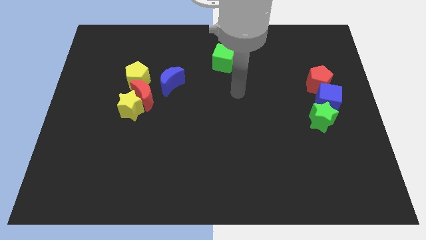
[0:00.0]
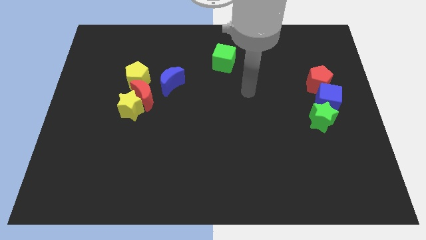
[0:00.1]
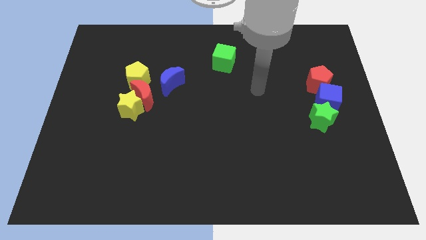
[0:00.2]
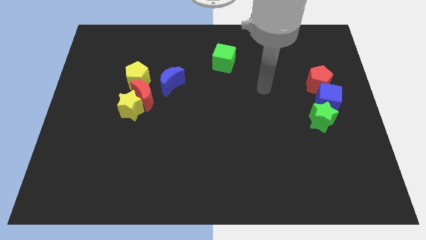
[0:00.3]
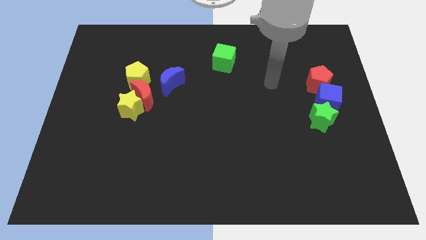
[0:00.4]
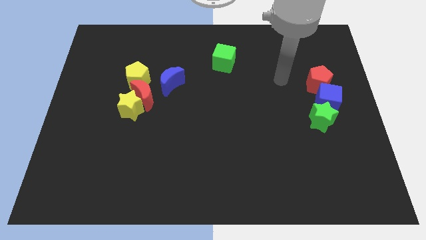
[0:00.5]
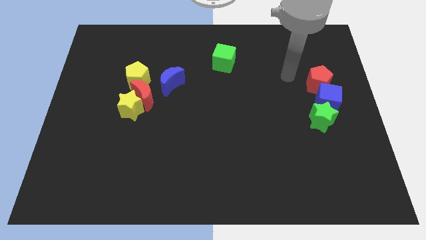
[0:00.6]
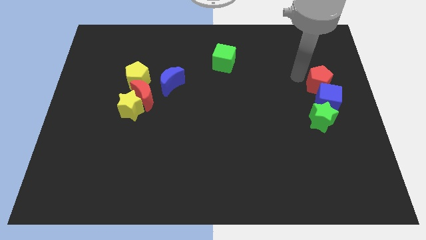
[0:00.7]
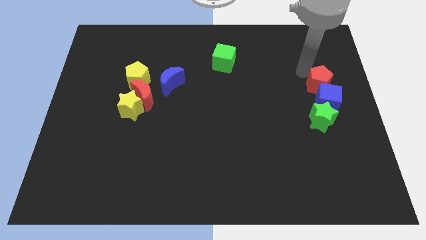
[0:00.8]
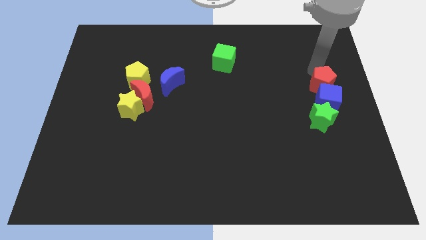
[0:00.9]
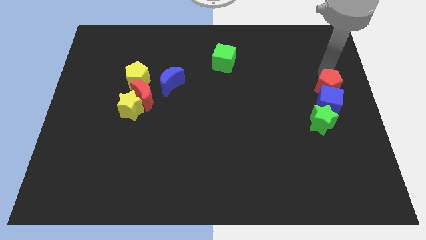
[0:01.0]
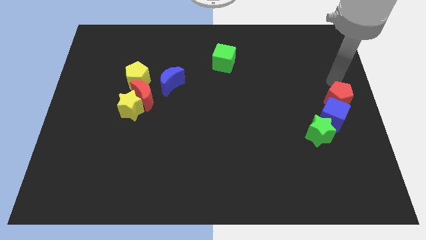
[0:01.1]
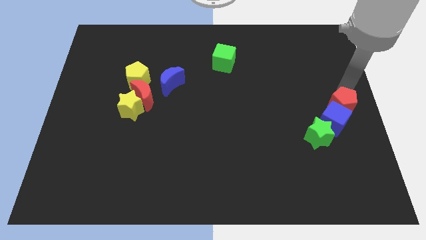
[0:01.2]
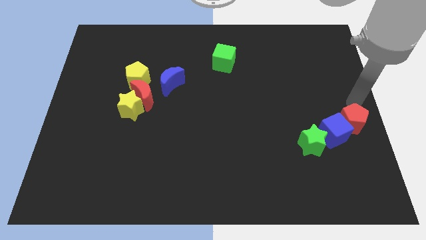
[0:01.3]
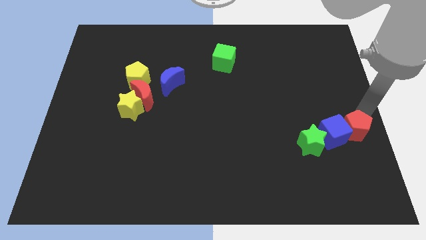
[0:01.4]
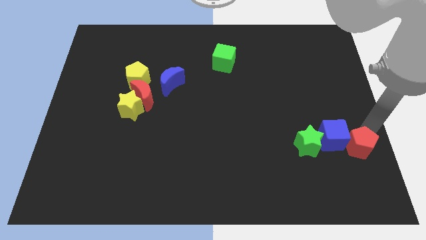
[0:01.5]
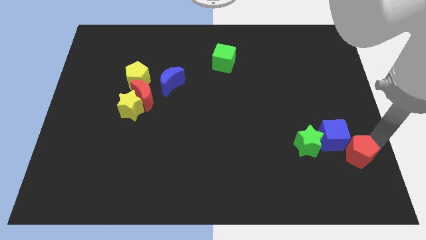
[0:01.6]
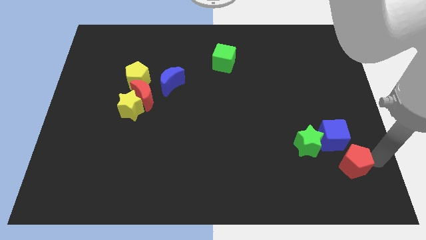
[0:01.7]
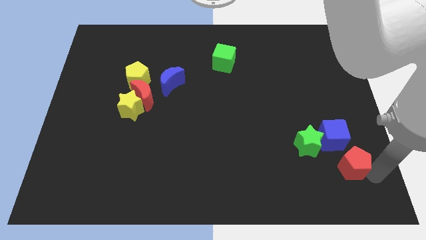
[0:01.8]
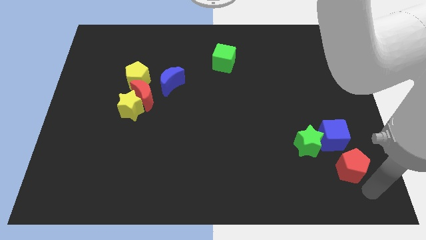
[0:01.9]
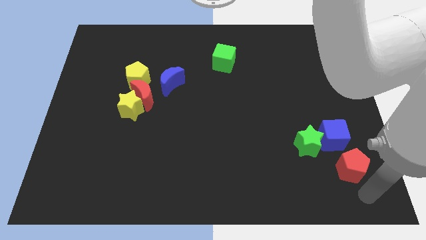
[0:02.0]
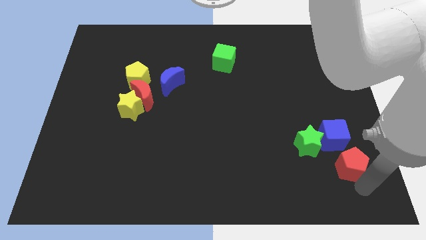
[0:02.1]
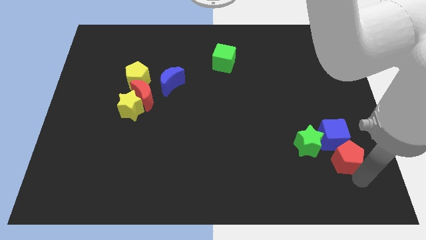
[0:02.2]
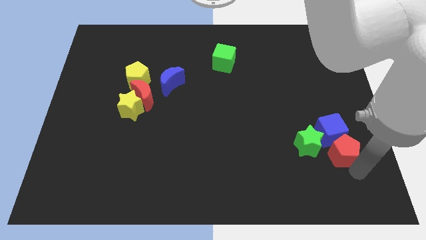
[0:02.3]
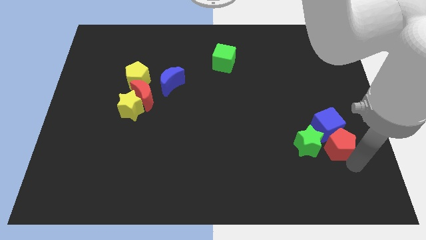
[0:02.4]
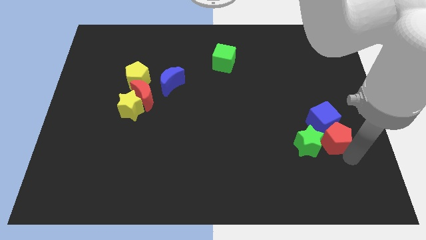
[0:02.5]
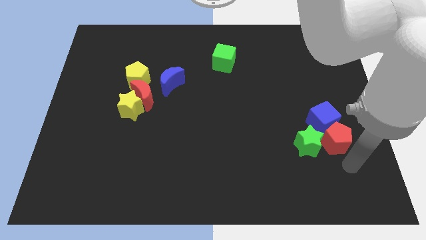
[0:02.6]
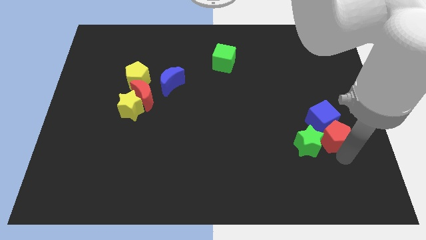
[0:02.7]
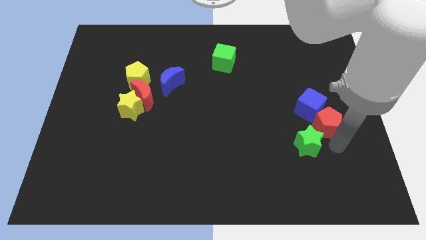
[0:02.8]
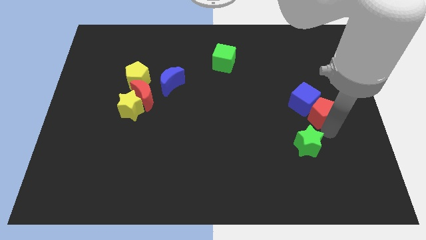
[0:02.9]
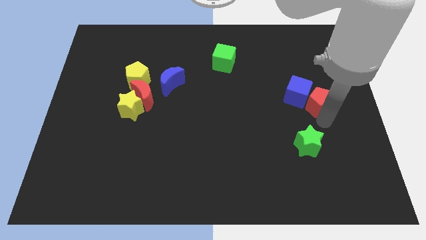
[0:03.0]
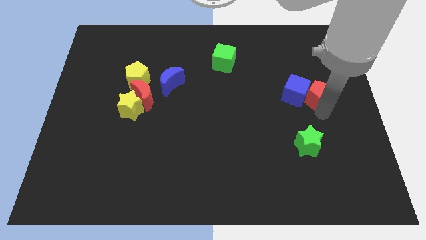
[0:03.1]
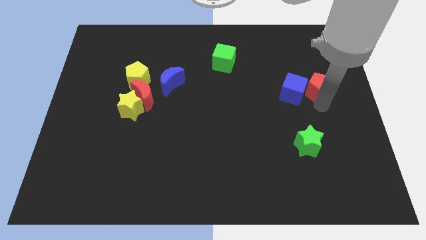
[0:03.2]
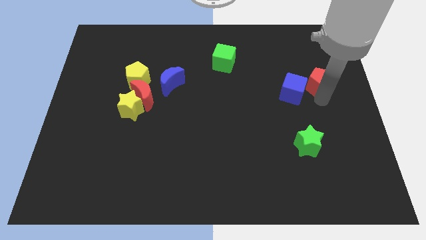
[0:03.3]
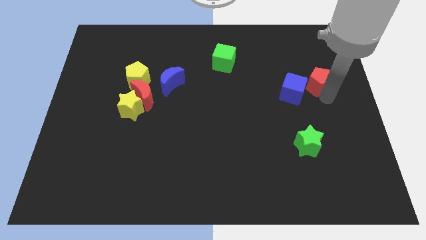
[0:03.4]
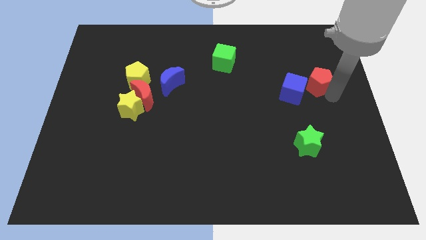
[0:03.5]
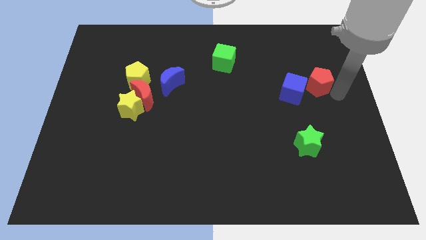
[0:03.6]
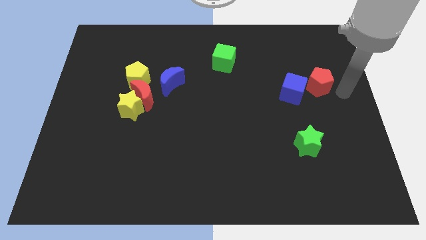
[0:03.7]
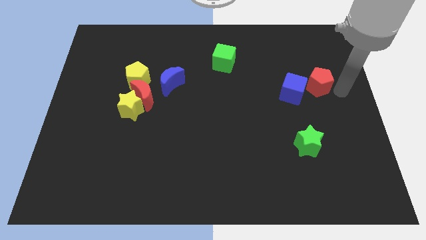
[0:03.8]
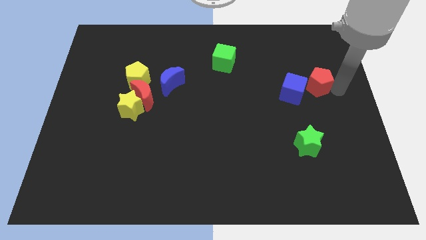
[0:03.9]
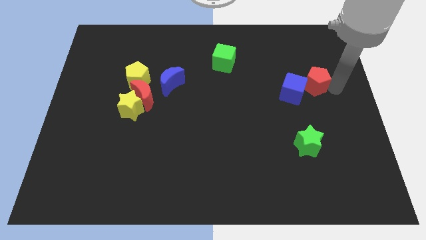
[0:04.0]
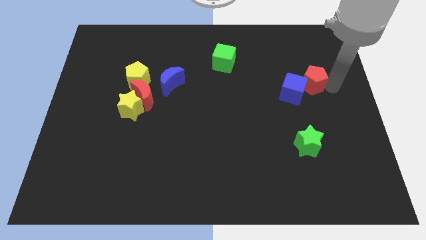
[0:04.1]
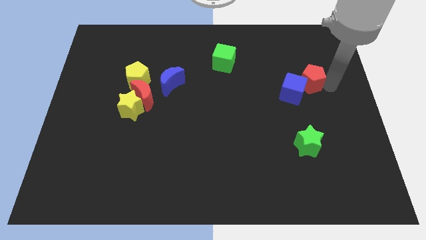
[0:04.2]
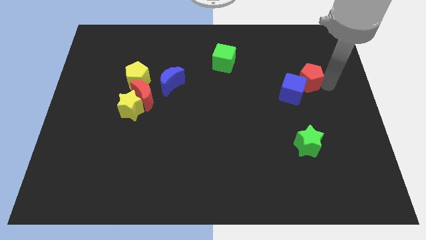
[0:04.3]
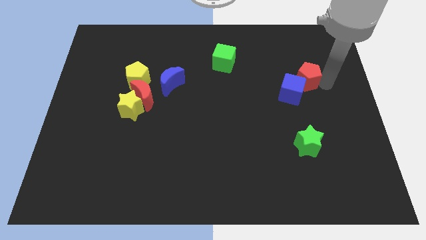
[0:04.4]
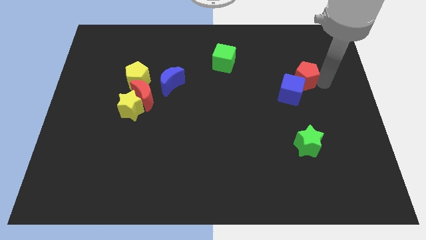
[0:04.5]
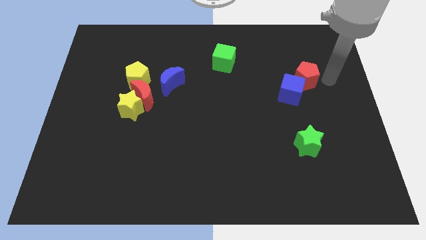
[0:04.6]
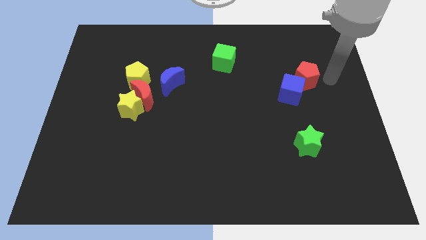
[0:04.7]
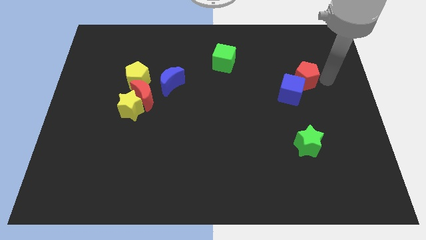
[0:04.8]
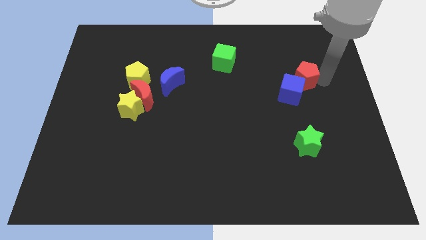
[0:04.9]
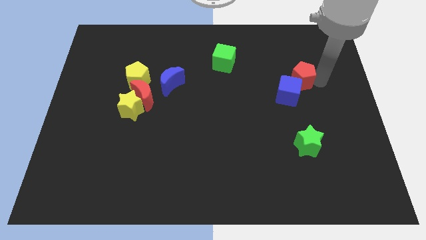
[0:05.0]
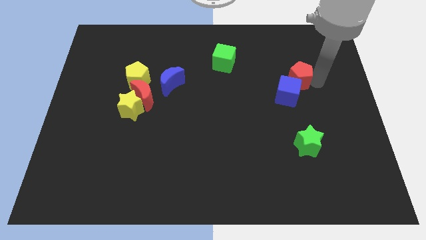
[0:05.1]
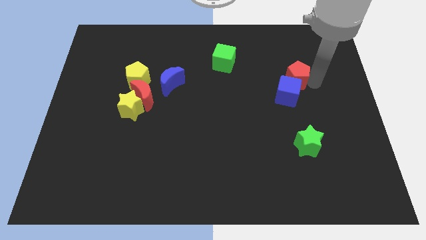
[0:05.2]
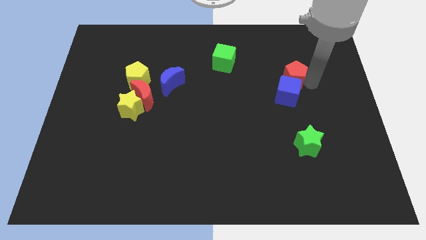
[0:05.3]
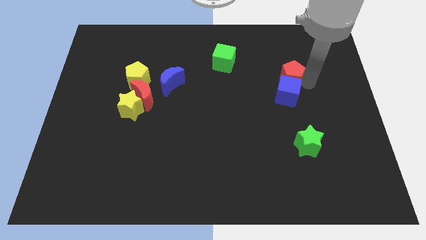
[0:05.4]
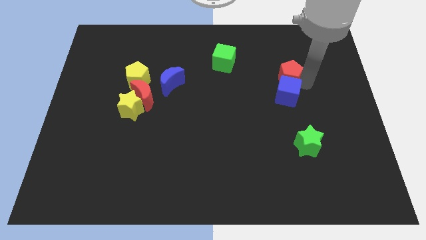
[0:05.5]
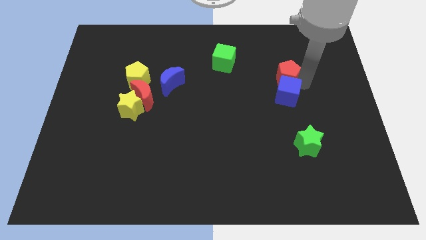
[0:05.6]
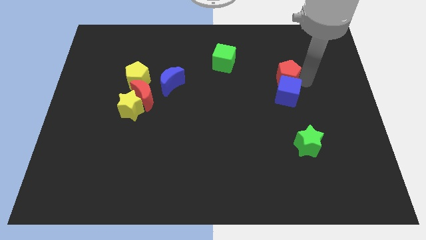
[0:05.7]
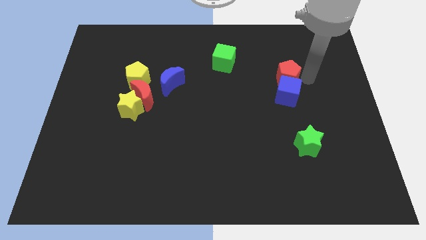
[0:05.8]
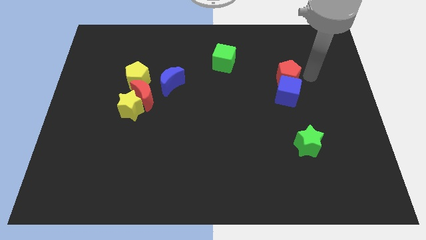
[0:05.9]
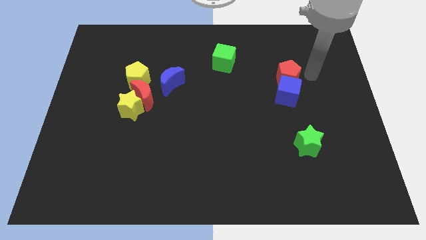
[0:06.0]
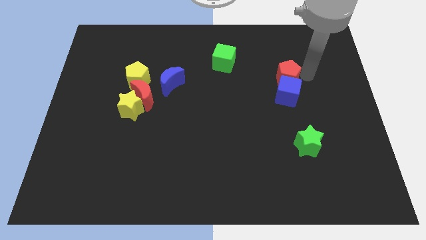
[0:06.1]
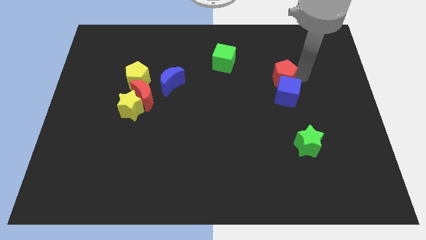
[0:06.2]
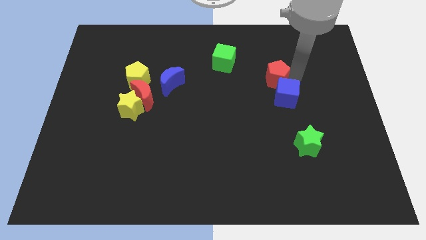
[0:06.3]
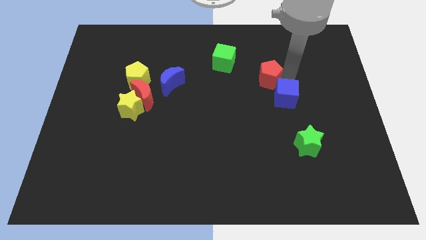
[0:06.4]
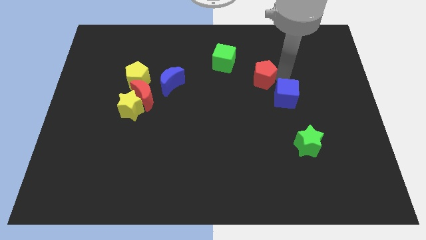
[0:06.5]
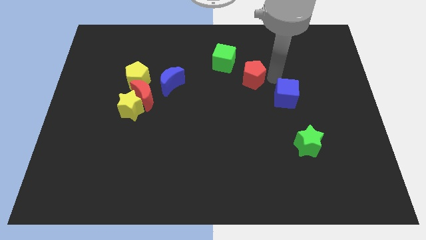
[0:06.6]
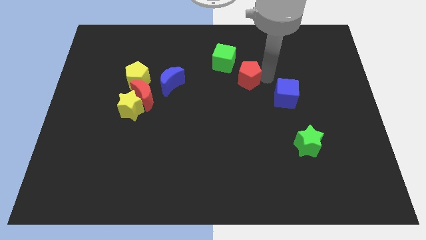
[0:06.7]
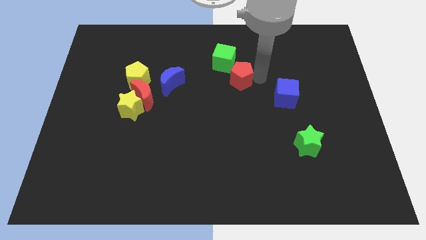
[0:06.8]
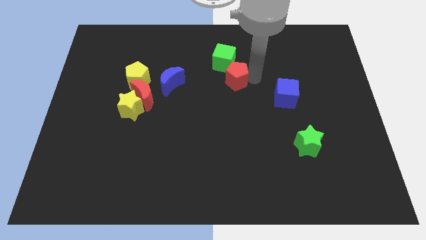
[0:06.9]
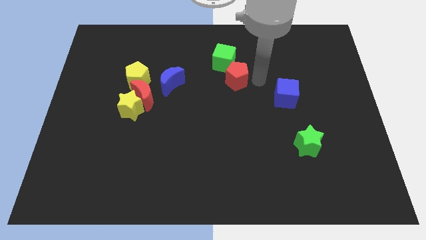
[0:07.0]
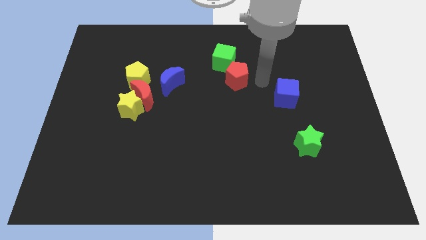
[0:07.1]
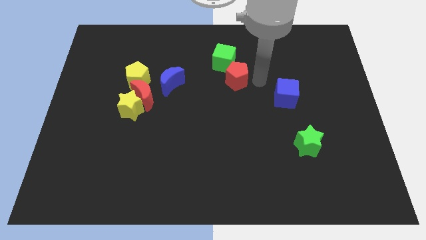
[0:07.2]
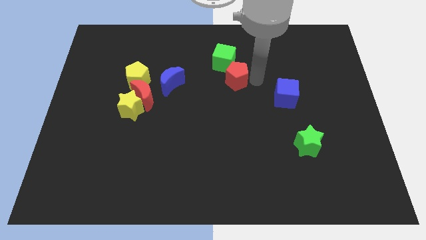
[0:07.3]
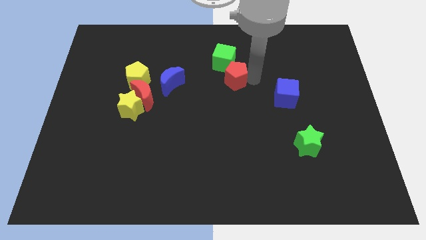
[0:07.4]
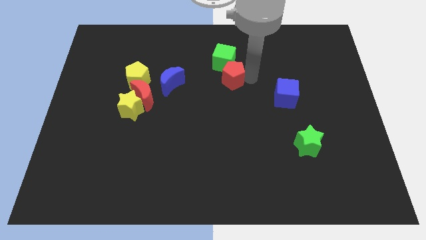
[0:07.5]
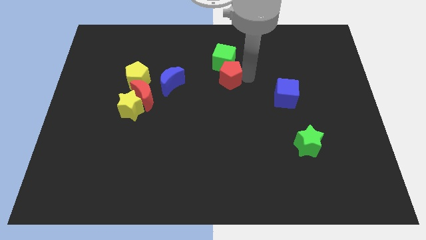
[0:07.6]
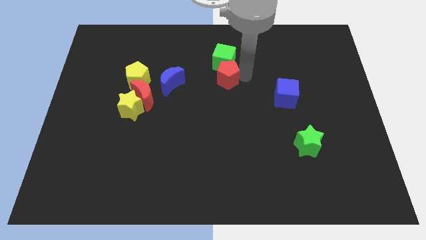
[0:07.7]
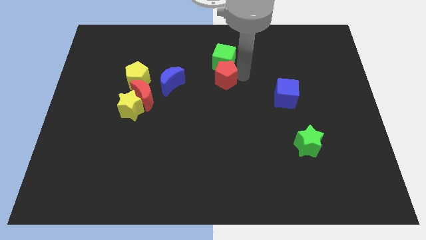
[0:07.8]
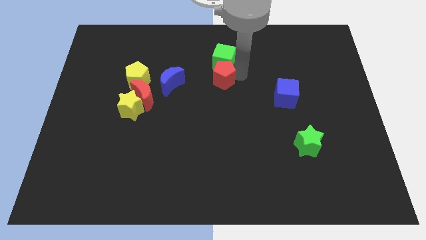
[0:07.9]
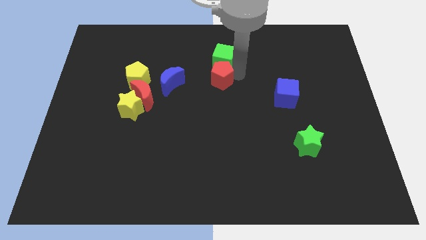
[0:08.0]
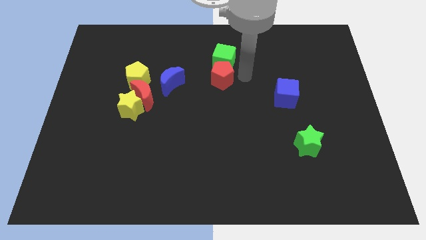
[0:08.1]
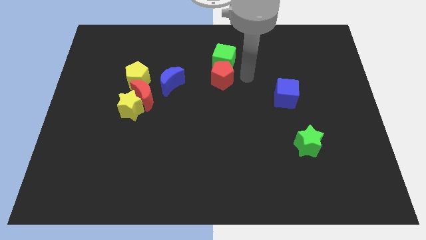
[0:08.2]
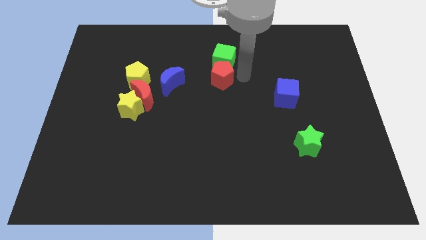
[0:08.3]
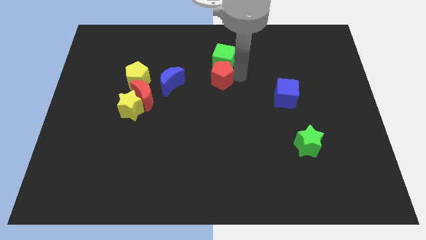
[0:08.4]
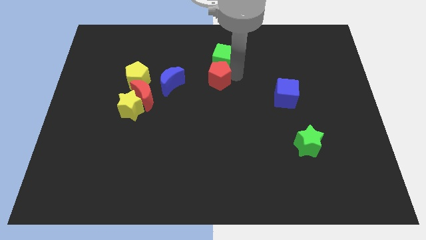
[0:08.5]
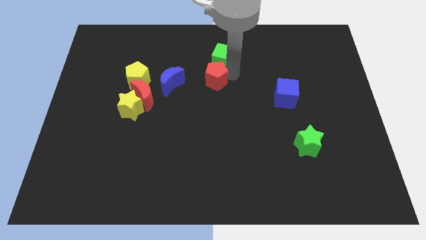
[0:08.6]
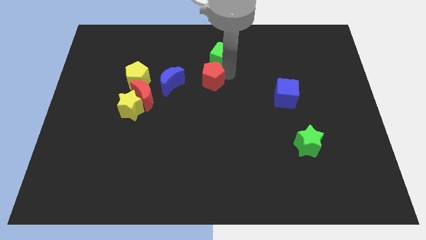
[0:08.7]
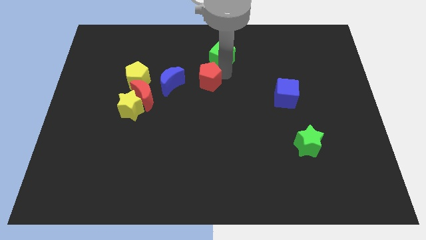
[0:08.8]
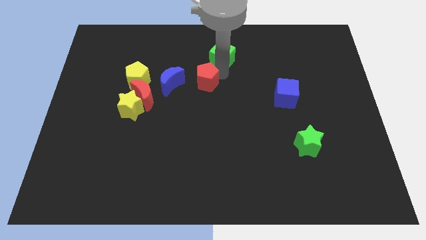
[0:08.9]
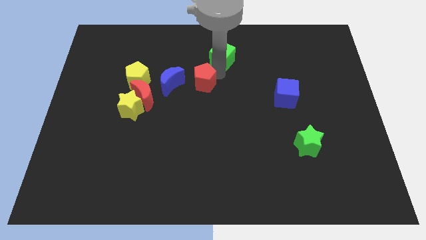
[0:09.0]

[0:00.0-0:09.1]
move the red pentagon to the right side of the yellow pentagon
